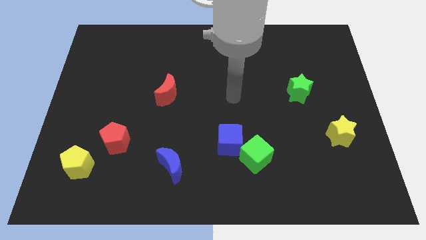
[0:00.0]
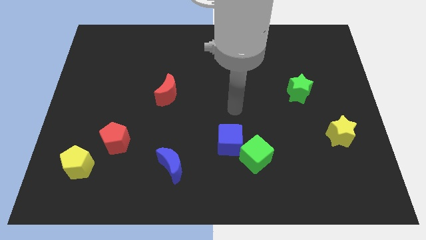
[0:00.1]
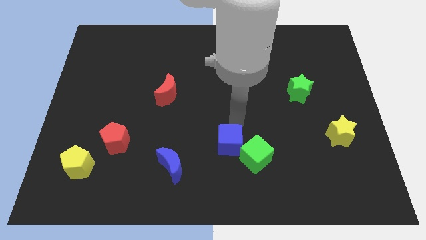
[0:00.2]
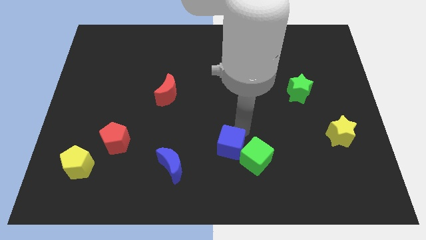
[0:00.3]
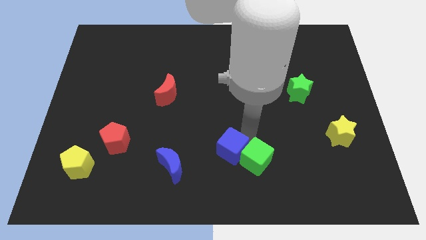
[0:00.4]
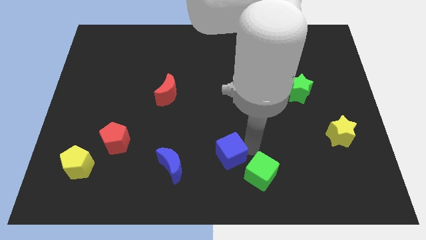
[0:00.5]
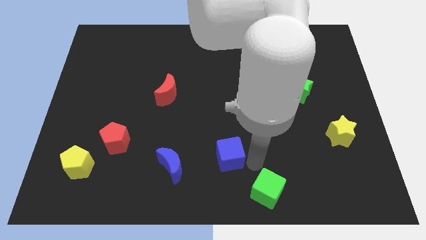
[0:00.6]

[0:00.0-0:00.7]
move the blue cube away from the green cube

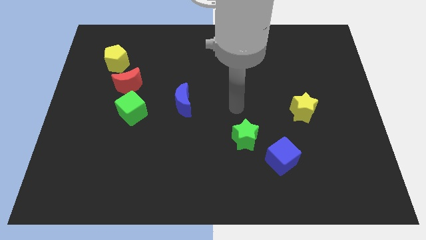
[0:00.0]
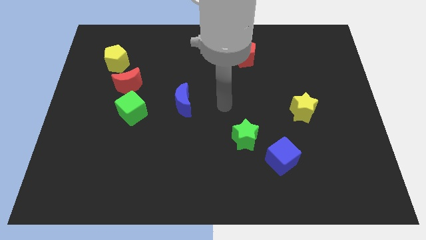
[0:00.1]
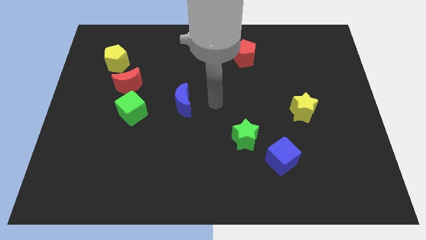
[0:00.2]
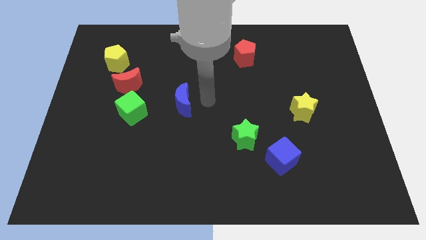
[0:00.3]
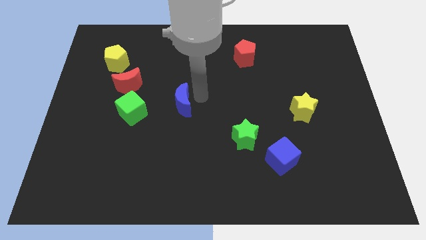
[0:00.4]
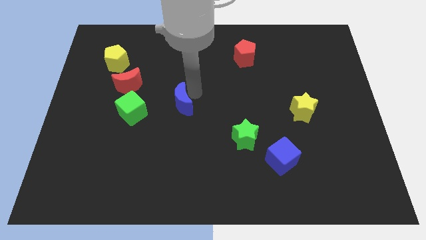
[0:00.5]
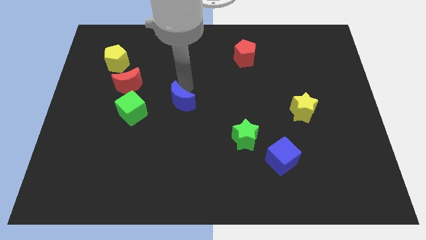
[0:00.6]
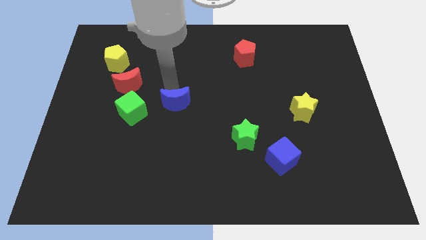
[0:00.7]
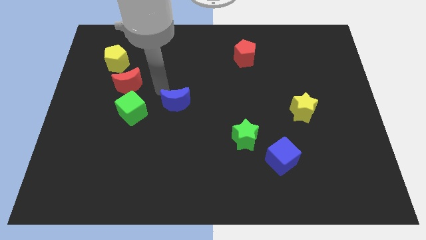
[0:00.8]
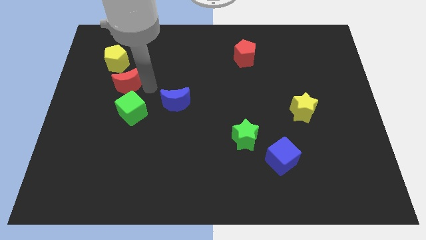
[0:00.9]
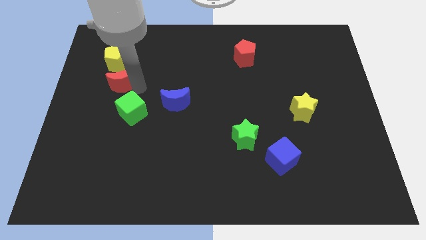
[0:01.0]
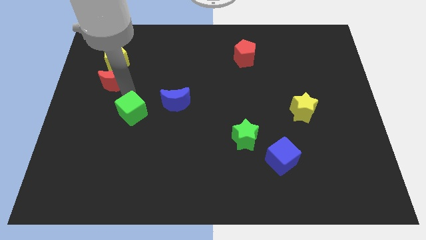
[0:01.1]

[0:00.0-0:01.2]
pull the green cube apart from the red moon

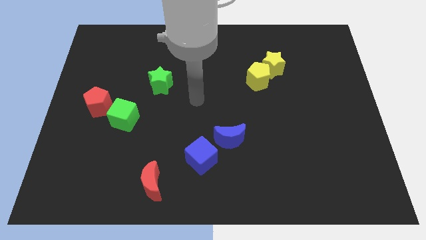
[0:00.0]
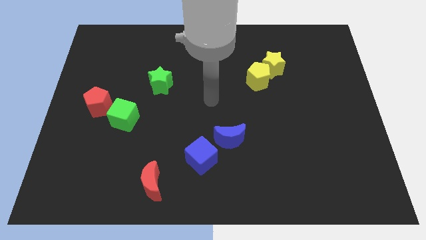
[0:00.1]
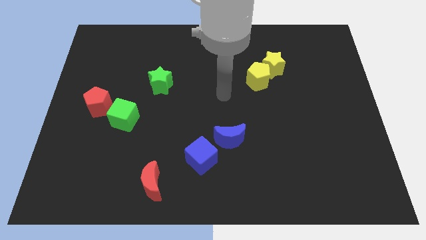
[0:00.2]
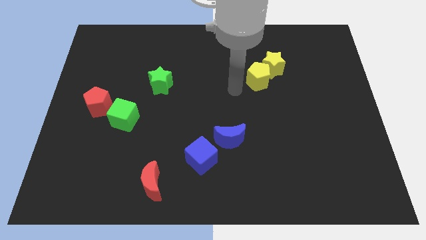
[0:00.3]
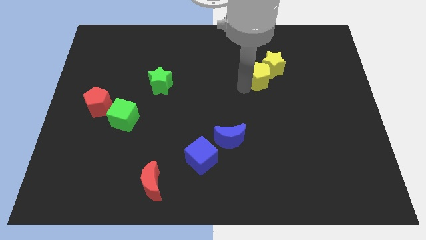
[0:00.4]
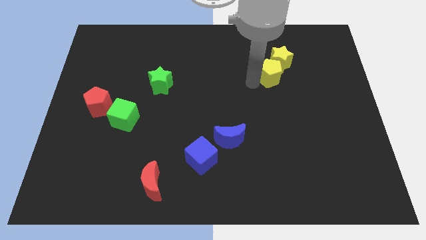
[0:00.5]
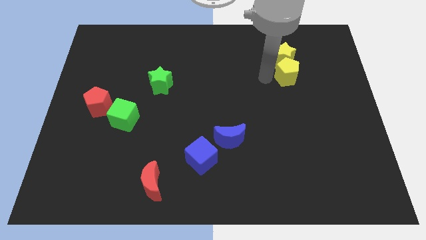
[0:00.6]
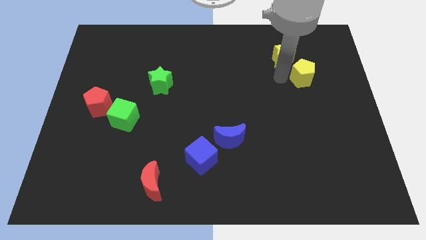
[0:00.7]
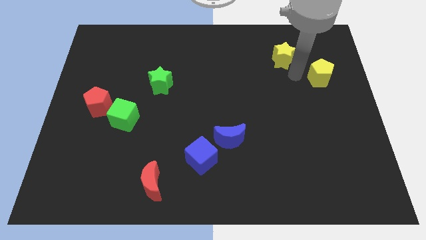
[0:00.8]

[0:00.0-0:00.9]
move the yellow star away from the yellow pentagon

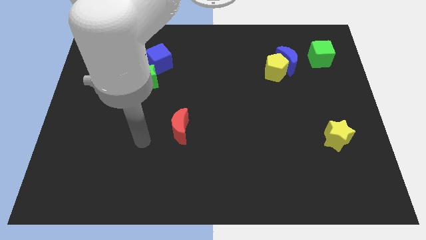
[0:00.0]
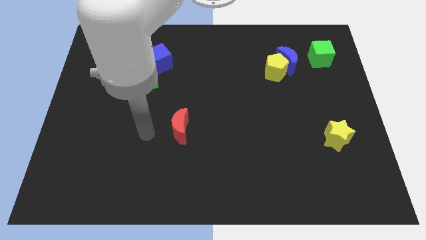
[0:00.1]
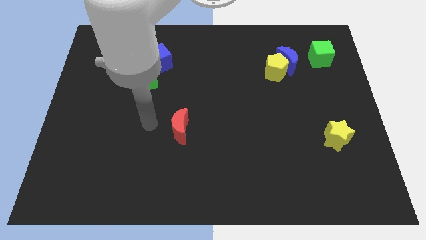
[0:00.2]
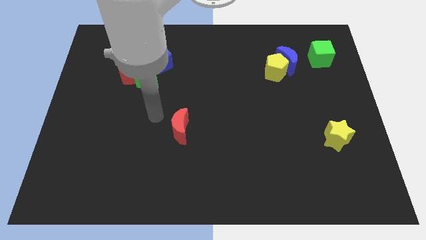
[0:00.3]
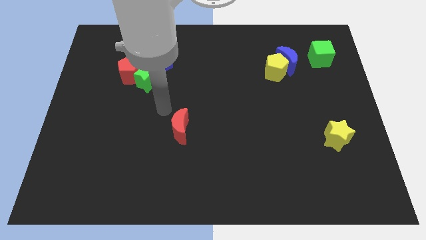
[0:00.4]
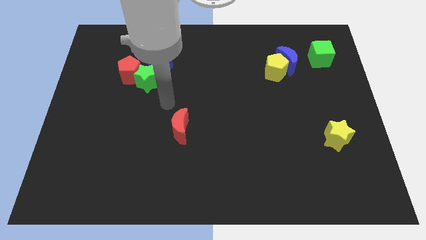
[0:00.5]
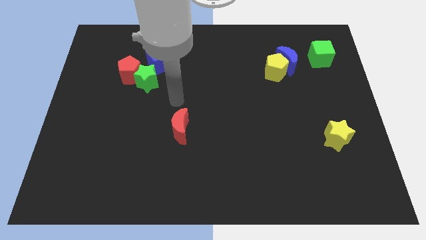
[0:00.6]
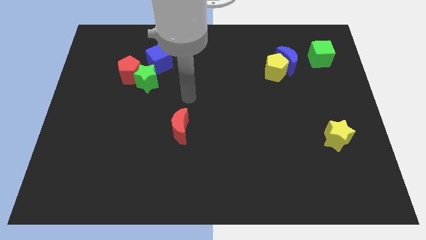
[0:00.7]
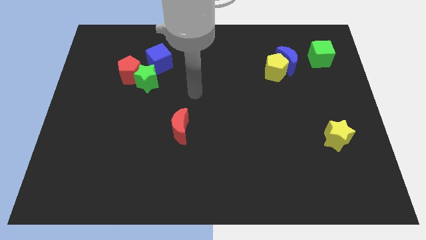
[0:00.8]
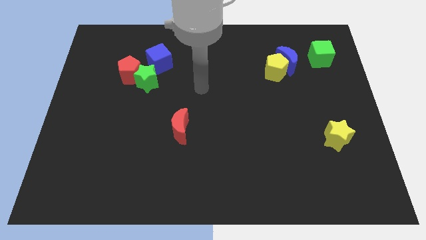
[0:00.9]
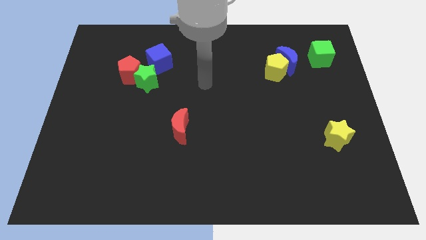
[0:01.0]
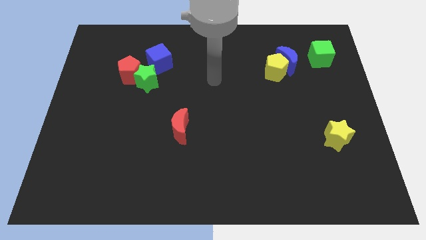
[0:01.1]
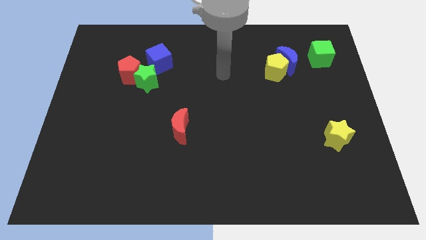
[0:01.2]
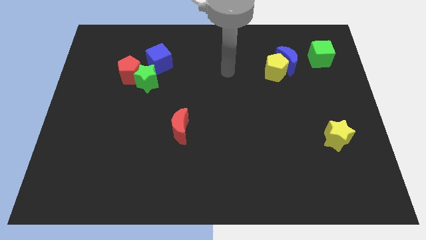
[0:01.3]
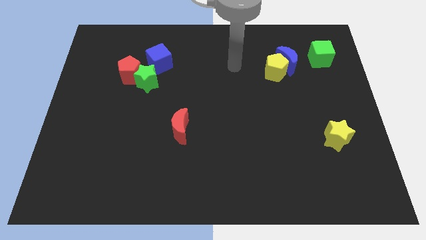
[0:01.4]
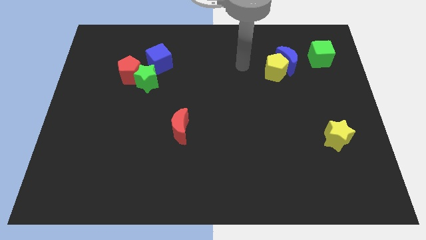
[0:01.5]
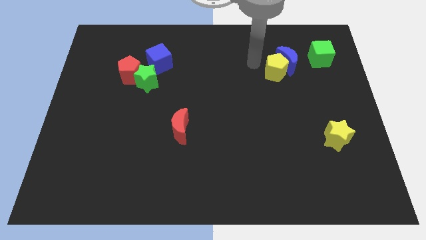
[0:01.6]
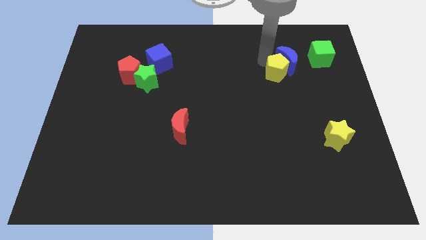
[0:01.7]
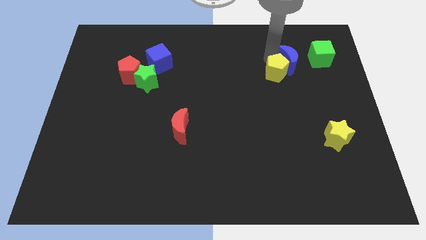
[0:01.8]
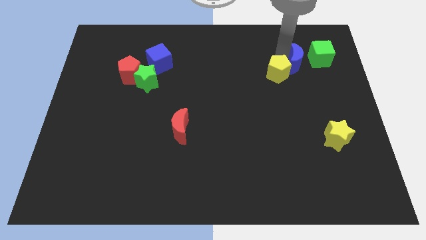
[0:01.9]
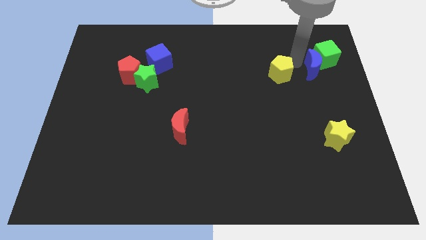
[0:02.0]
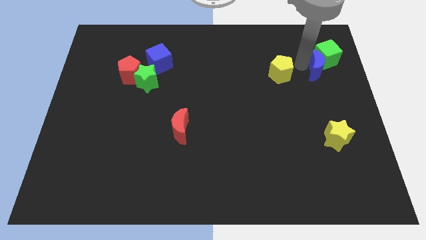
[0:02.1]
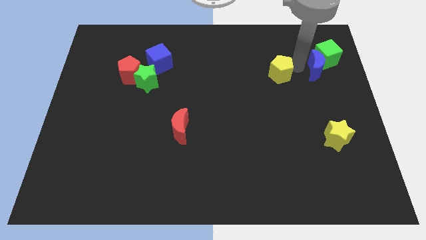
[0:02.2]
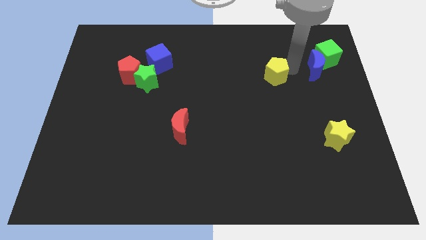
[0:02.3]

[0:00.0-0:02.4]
separate the yellow pentagon from the blue moon

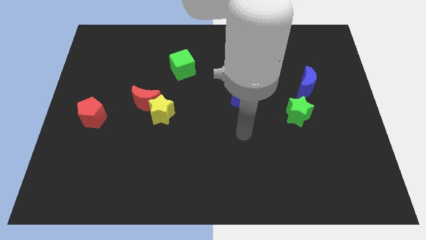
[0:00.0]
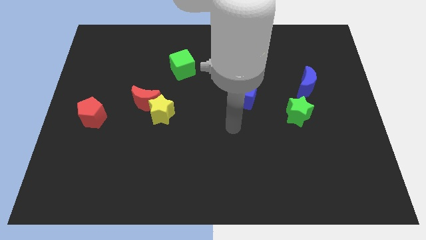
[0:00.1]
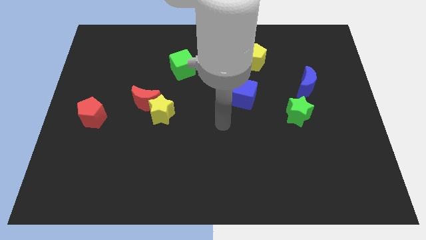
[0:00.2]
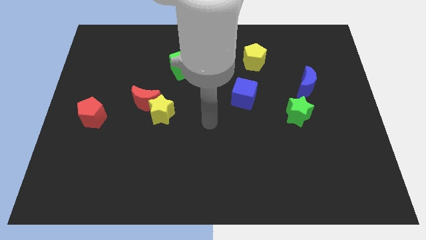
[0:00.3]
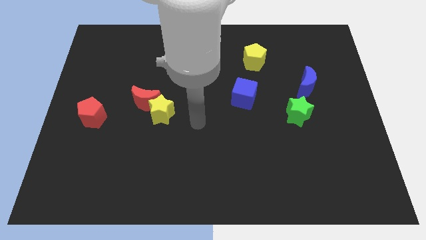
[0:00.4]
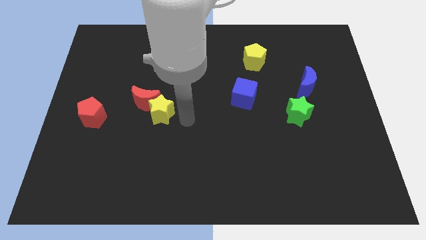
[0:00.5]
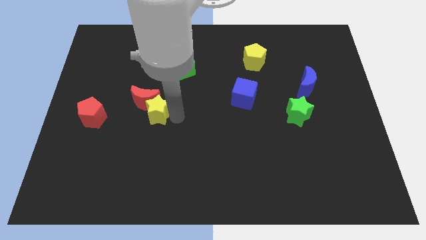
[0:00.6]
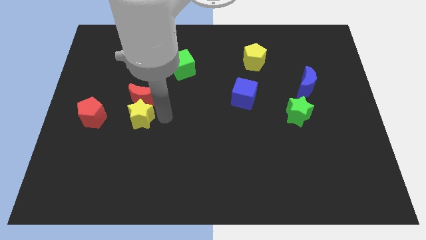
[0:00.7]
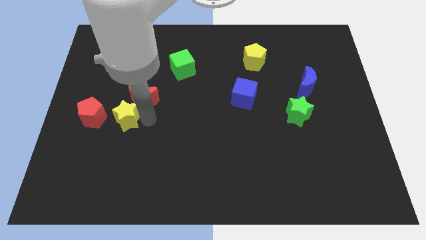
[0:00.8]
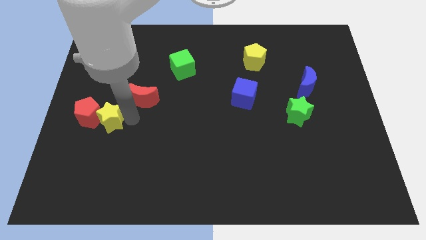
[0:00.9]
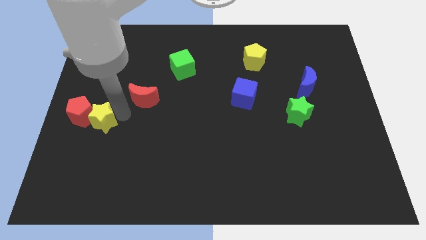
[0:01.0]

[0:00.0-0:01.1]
separate the red moon from the yellow star

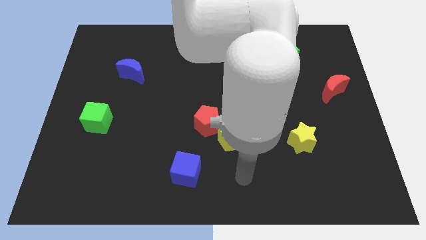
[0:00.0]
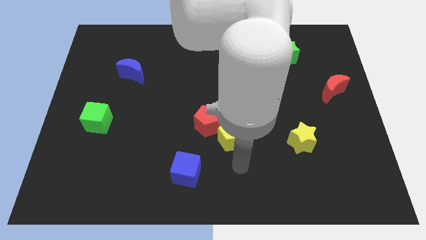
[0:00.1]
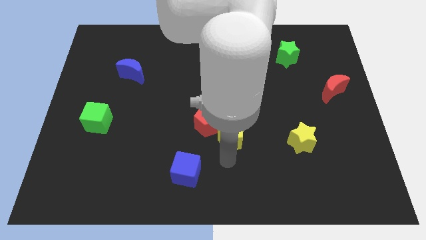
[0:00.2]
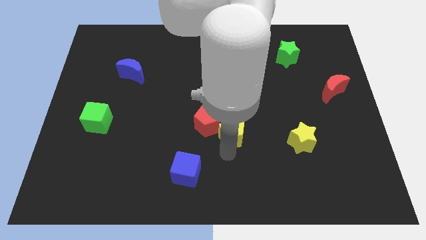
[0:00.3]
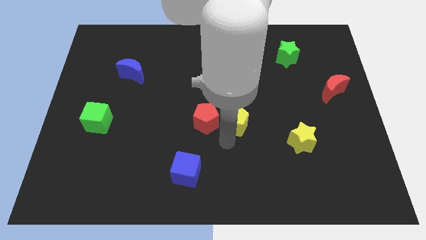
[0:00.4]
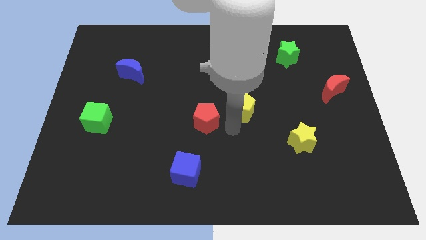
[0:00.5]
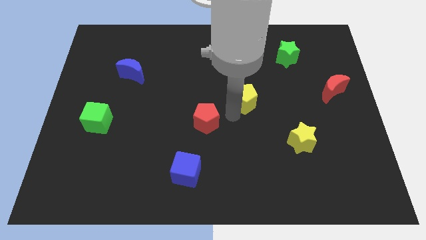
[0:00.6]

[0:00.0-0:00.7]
move the red pentagon away from the yellow pentagon

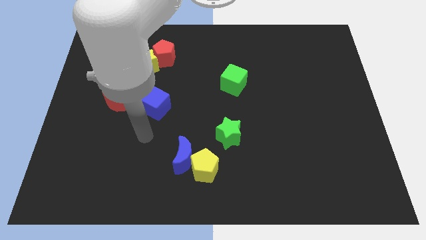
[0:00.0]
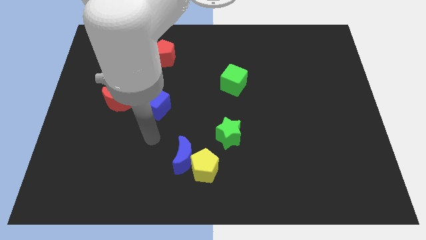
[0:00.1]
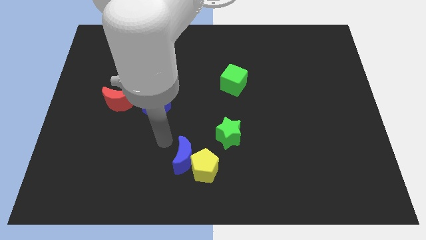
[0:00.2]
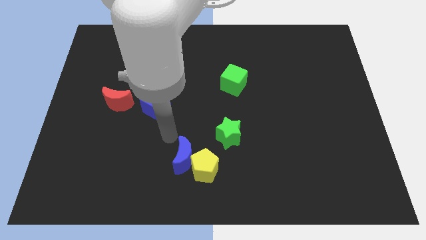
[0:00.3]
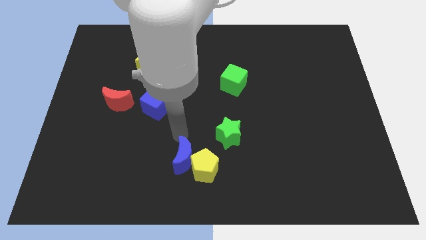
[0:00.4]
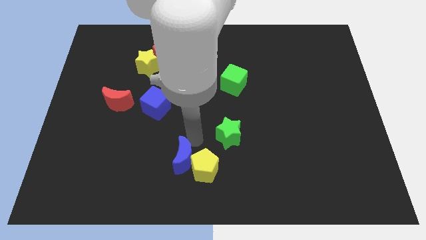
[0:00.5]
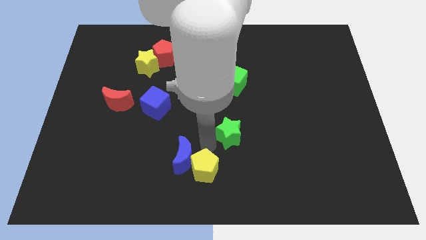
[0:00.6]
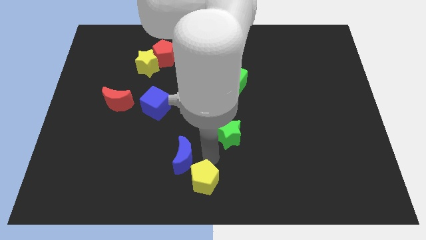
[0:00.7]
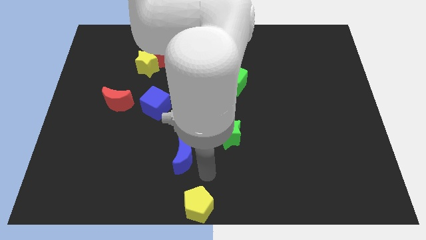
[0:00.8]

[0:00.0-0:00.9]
separate the blue moon from the yellow pentagon

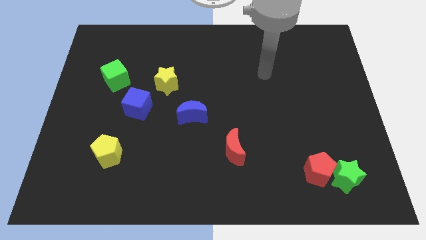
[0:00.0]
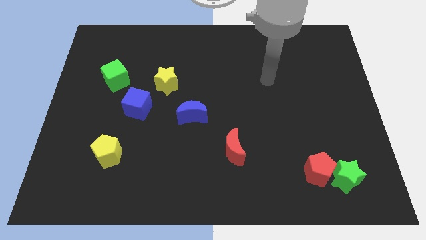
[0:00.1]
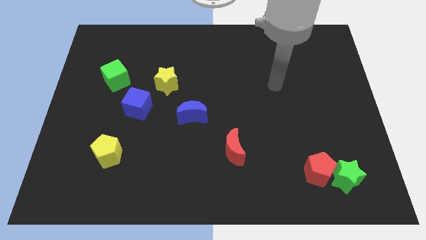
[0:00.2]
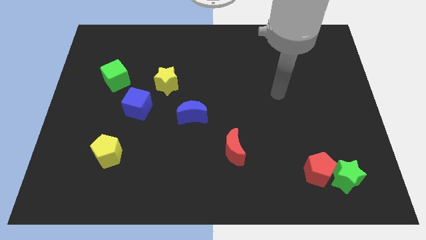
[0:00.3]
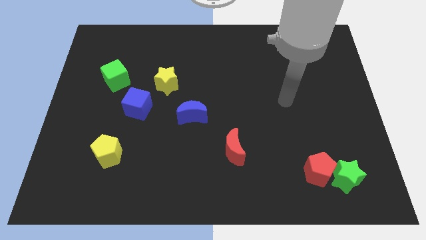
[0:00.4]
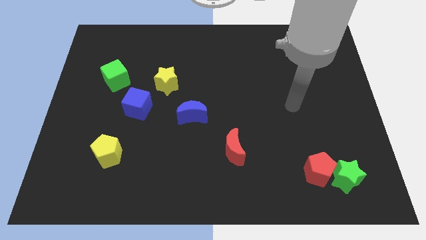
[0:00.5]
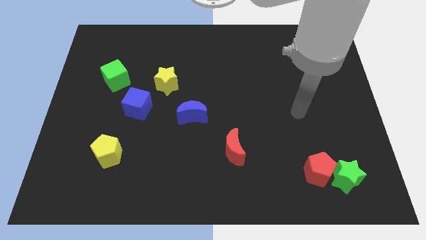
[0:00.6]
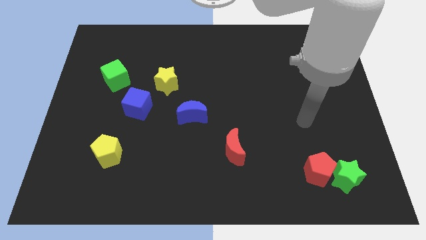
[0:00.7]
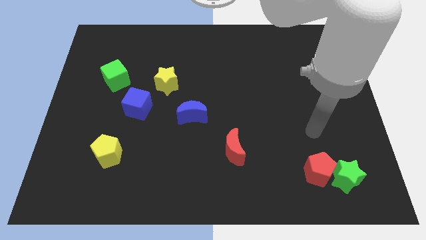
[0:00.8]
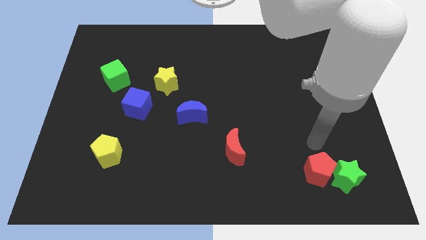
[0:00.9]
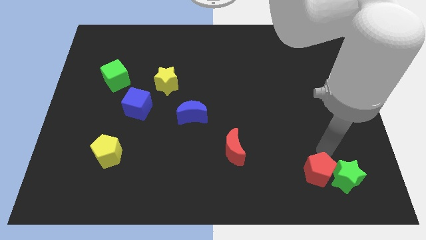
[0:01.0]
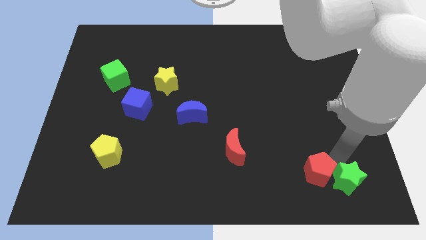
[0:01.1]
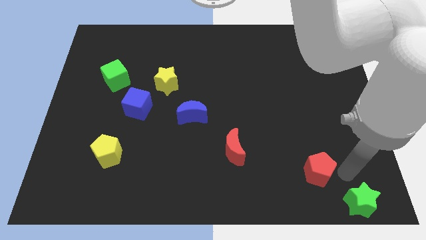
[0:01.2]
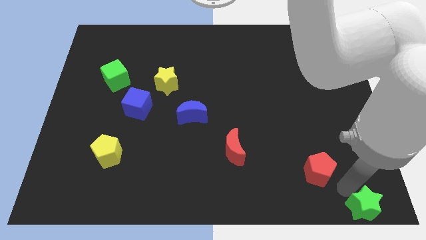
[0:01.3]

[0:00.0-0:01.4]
move the red pentagon away from the green star

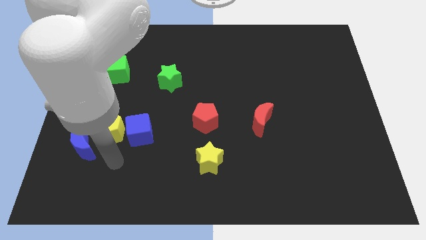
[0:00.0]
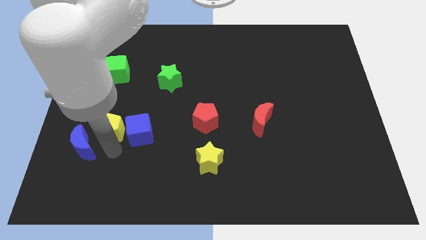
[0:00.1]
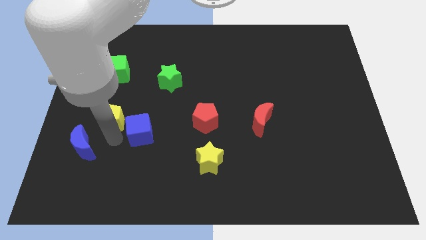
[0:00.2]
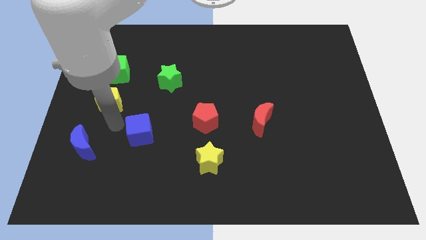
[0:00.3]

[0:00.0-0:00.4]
pull the blue cube apart from the yellow pentagon
